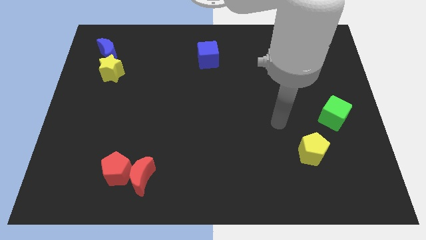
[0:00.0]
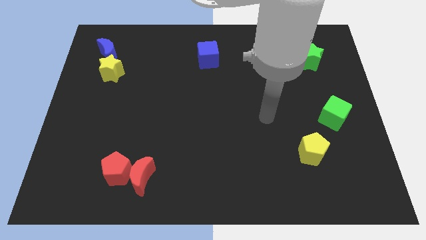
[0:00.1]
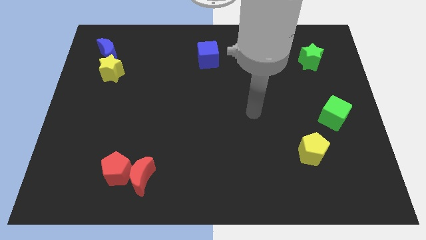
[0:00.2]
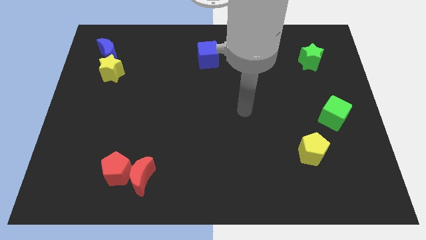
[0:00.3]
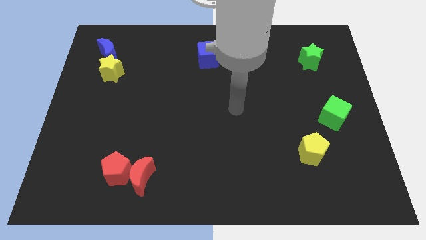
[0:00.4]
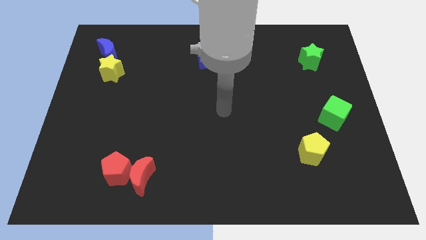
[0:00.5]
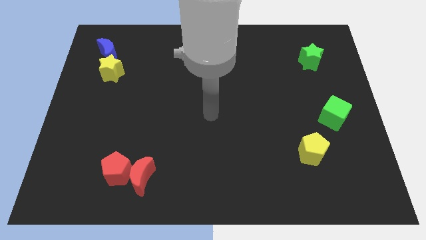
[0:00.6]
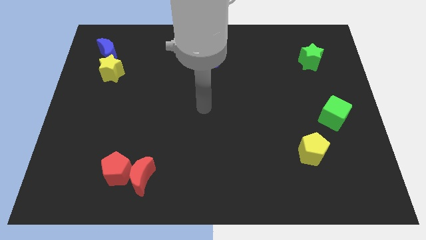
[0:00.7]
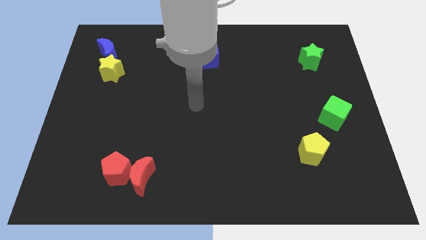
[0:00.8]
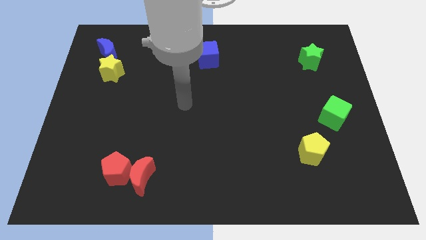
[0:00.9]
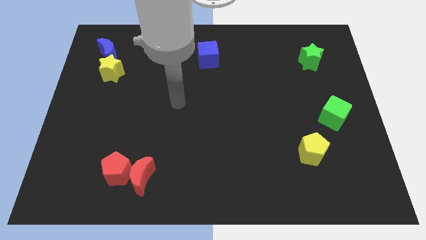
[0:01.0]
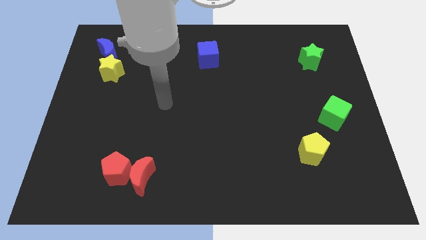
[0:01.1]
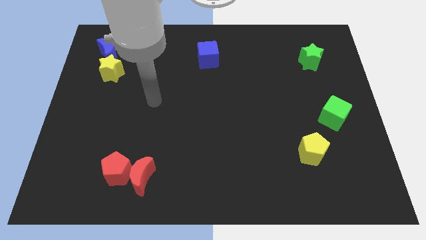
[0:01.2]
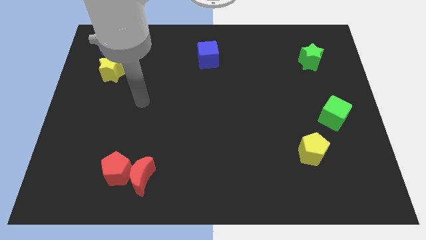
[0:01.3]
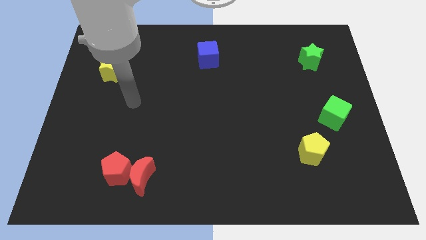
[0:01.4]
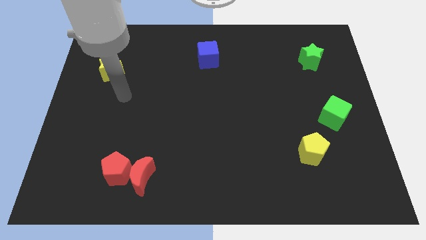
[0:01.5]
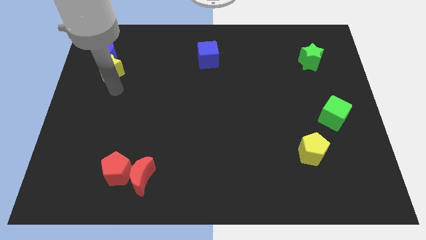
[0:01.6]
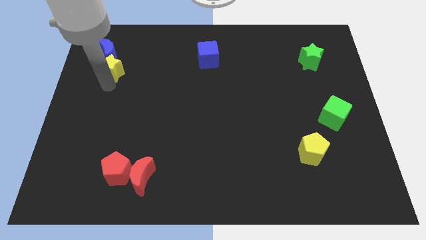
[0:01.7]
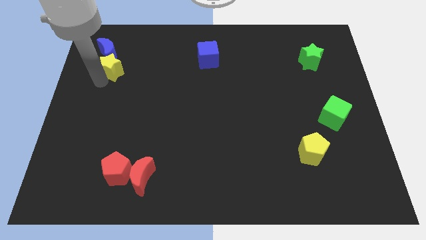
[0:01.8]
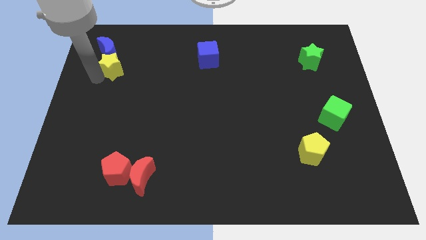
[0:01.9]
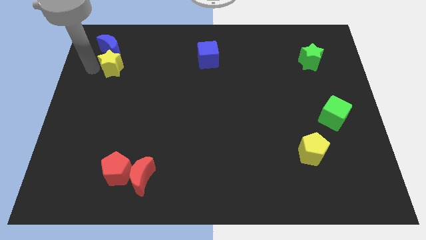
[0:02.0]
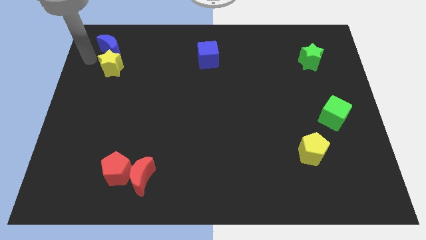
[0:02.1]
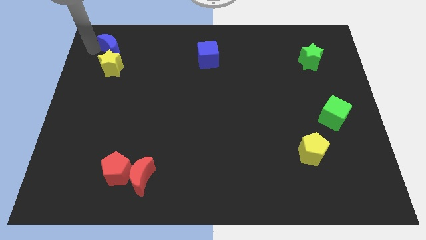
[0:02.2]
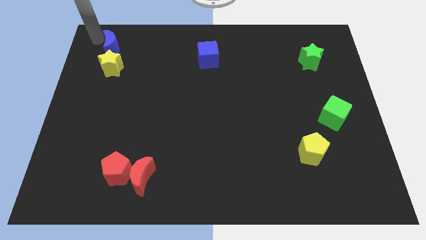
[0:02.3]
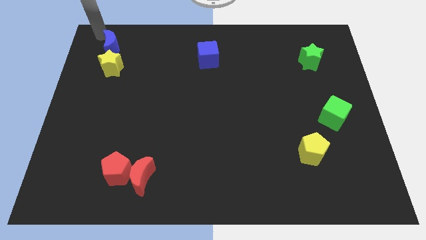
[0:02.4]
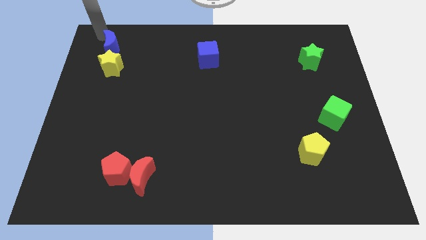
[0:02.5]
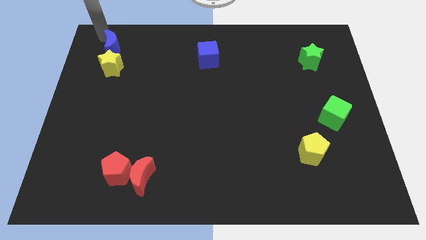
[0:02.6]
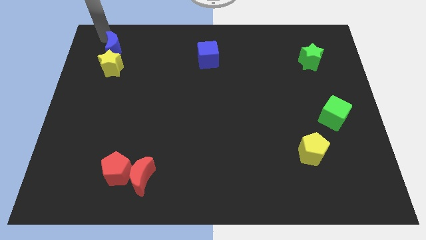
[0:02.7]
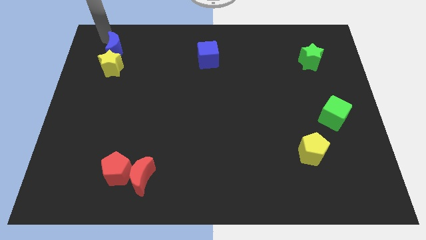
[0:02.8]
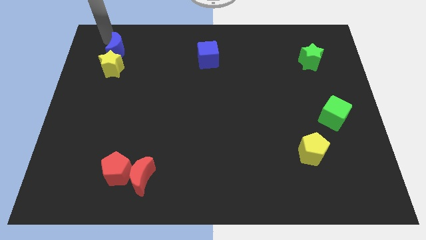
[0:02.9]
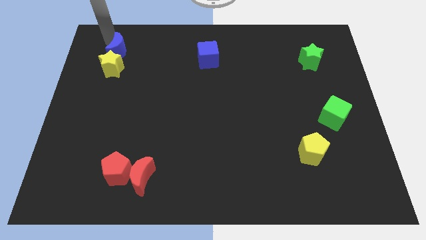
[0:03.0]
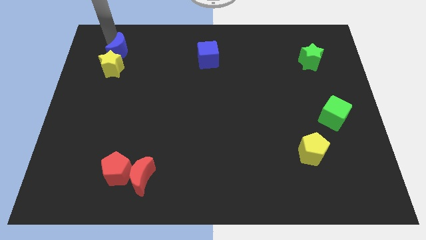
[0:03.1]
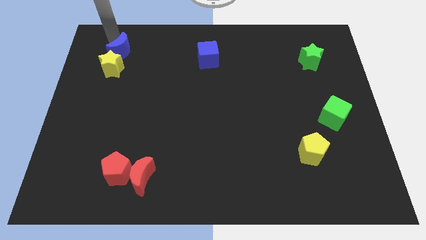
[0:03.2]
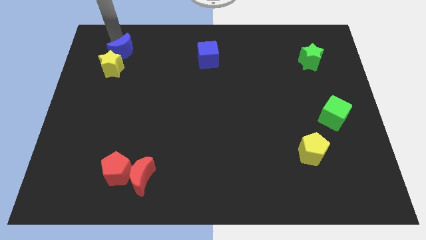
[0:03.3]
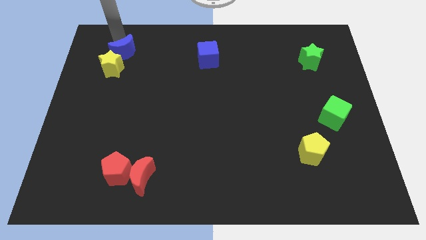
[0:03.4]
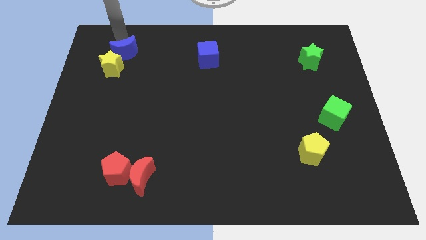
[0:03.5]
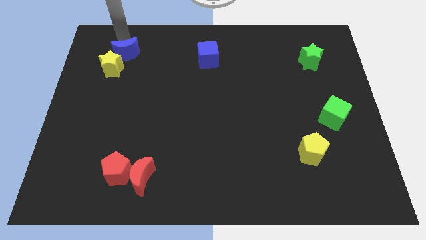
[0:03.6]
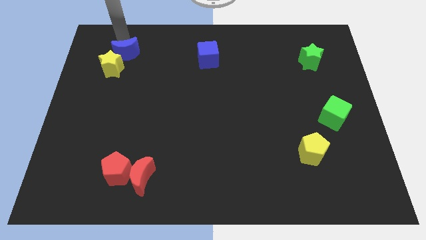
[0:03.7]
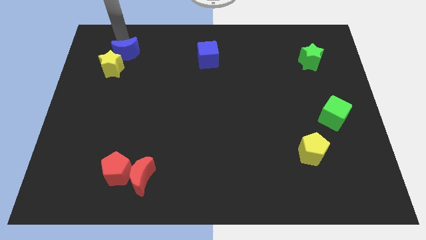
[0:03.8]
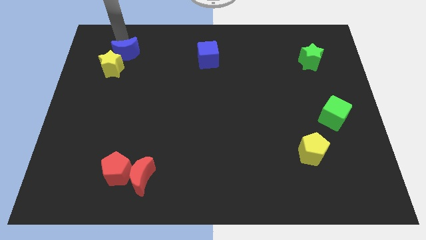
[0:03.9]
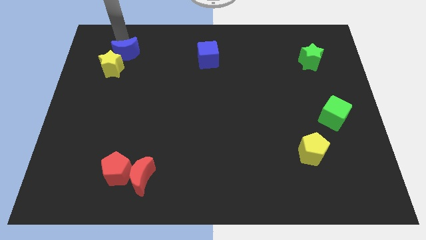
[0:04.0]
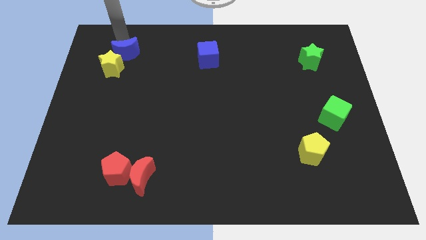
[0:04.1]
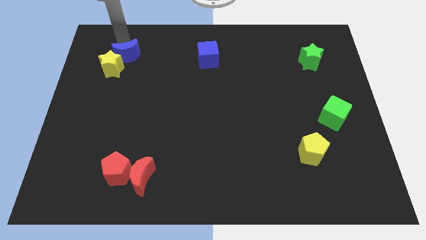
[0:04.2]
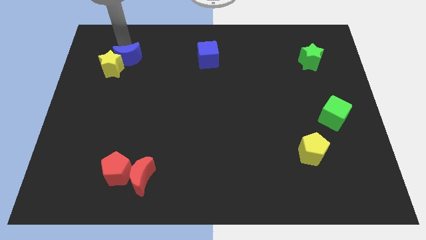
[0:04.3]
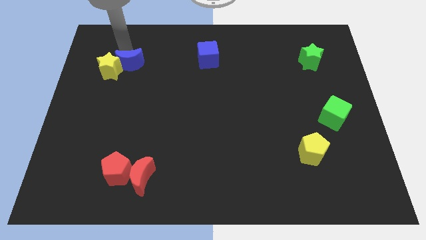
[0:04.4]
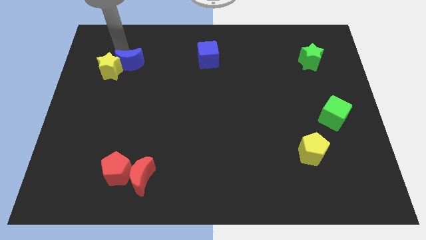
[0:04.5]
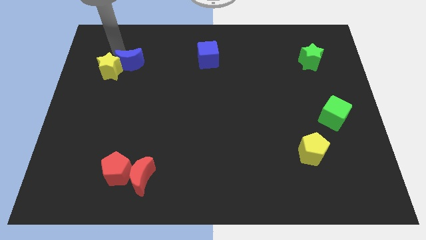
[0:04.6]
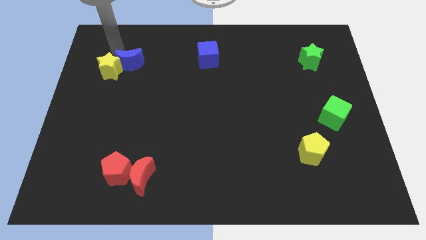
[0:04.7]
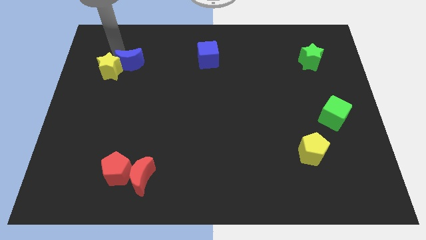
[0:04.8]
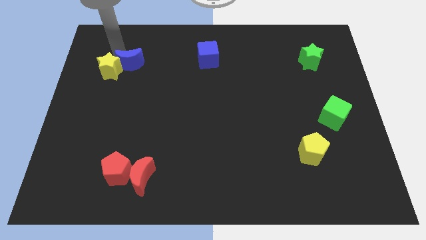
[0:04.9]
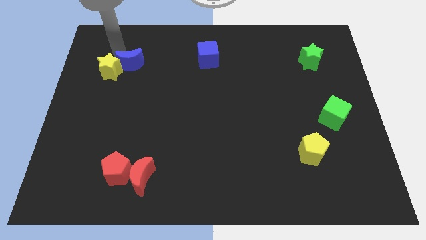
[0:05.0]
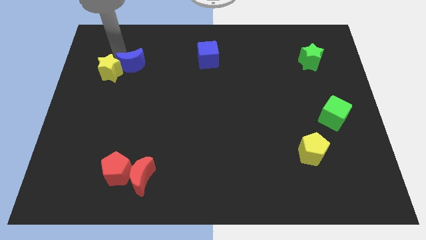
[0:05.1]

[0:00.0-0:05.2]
slide the blue moon downwards and then to the right slightly

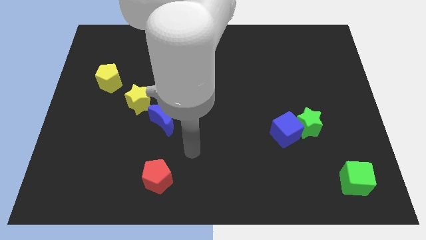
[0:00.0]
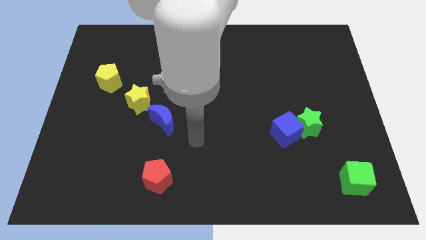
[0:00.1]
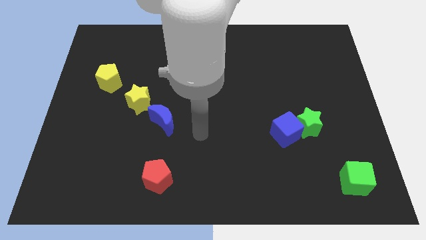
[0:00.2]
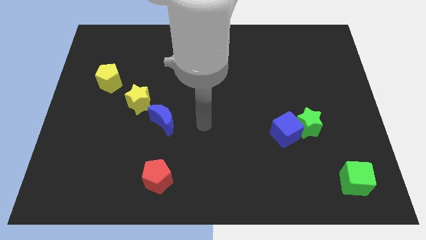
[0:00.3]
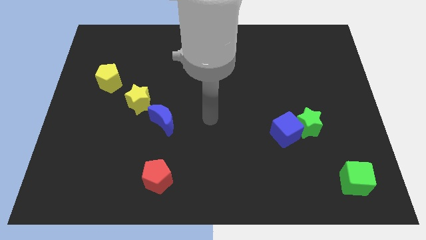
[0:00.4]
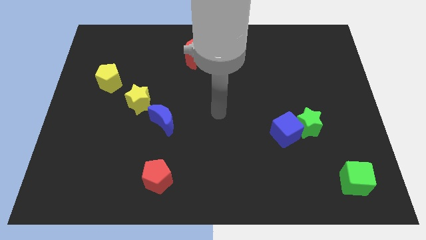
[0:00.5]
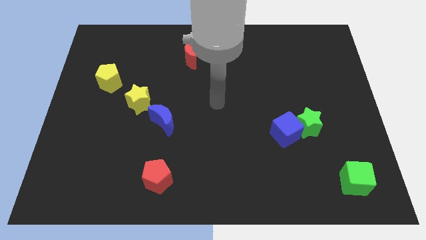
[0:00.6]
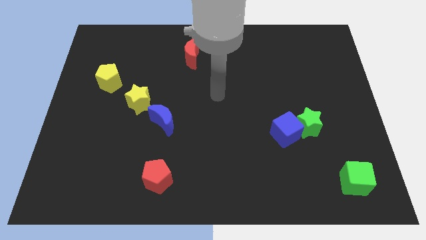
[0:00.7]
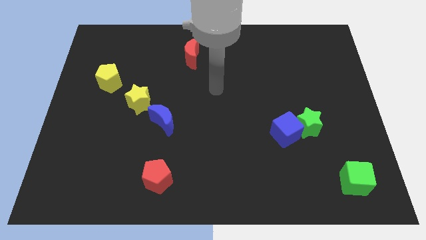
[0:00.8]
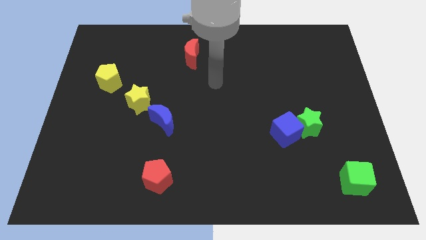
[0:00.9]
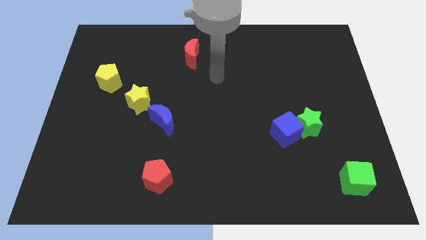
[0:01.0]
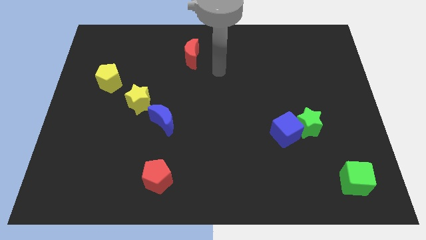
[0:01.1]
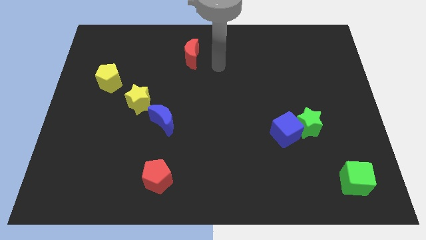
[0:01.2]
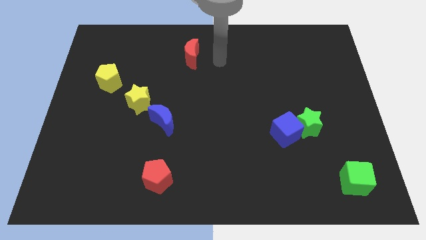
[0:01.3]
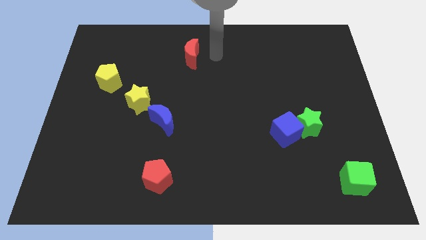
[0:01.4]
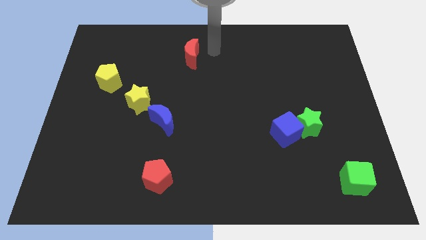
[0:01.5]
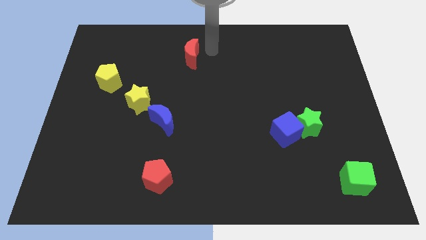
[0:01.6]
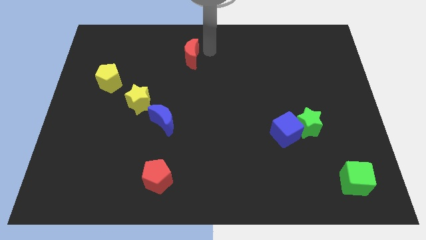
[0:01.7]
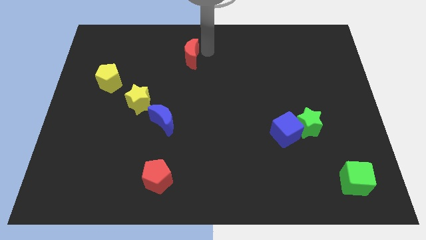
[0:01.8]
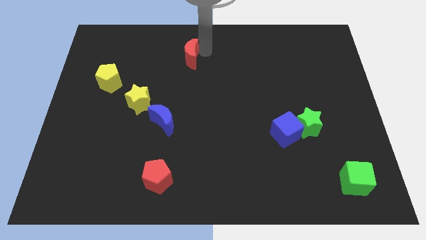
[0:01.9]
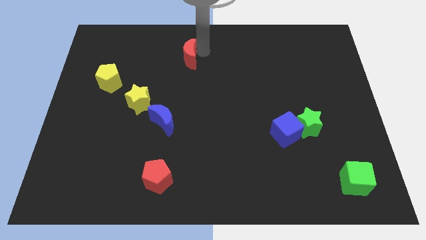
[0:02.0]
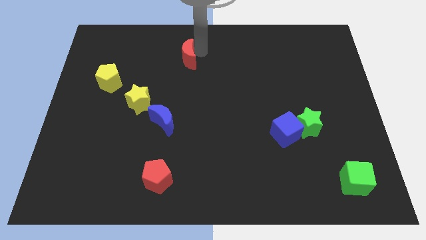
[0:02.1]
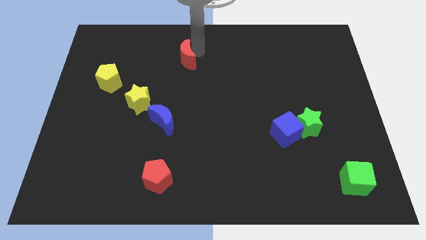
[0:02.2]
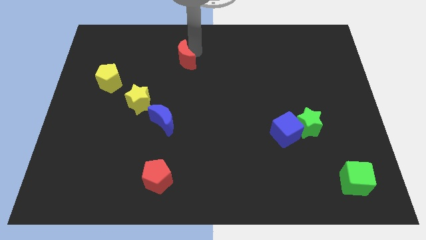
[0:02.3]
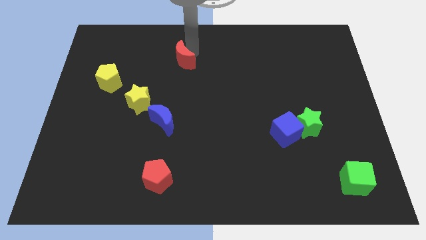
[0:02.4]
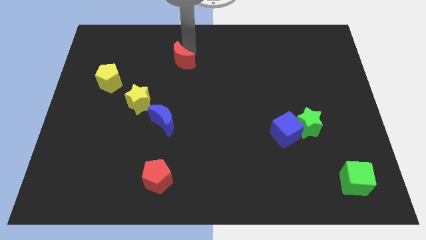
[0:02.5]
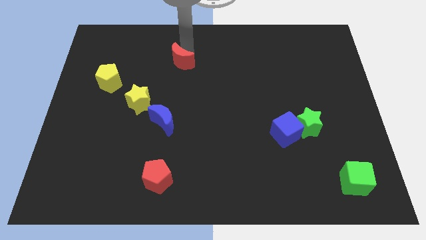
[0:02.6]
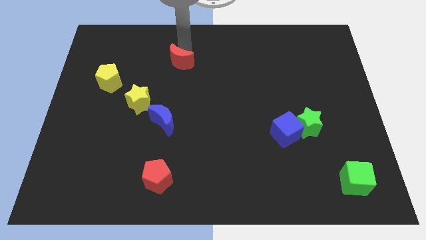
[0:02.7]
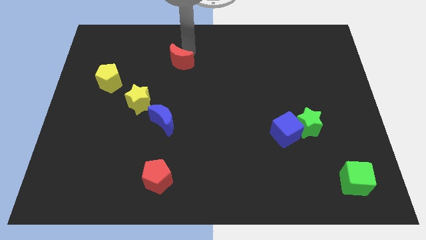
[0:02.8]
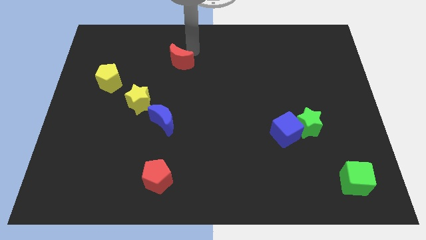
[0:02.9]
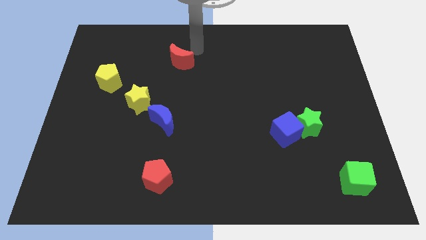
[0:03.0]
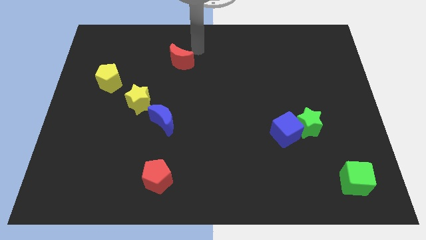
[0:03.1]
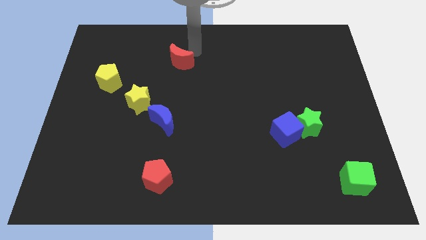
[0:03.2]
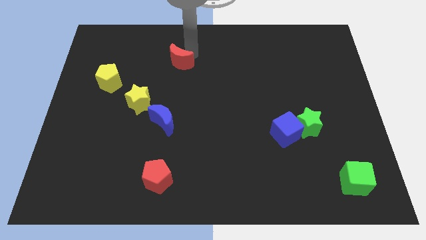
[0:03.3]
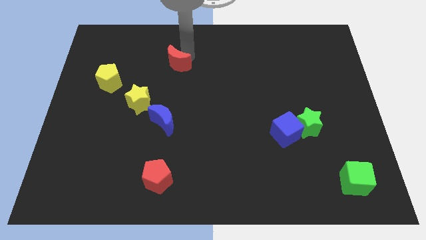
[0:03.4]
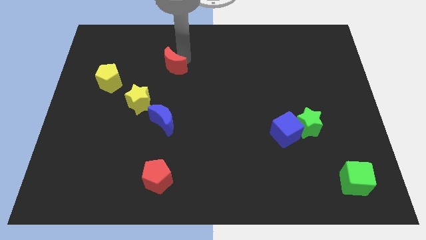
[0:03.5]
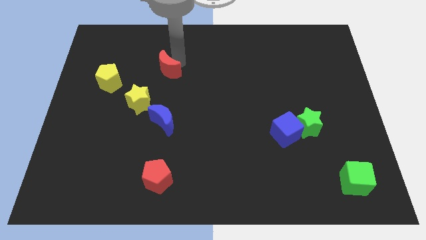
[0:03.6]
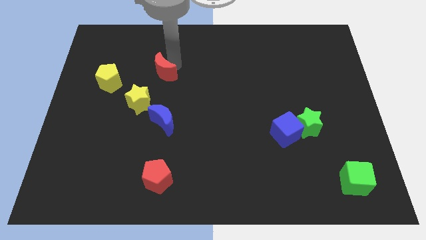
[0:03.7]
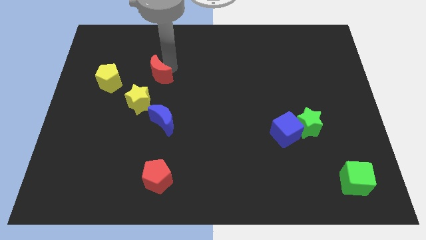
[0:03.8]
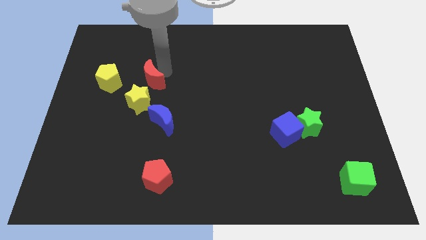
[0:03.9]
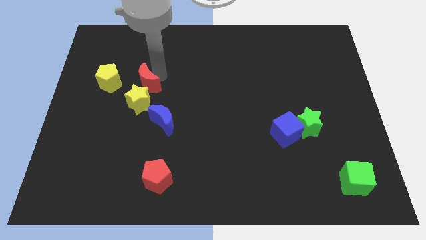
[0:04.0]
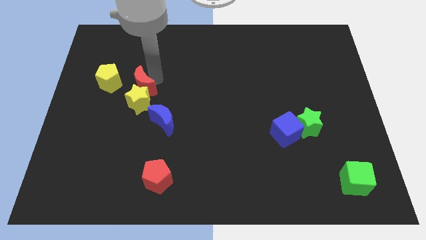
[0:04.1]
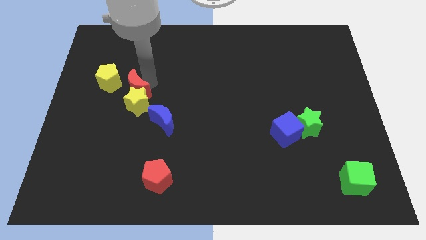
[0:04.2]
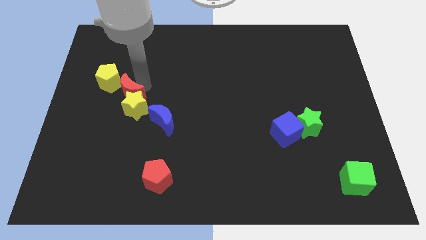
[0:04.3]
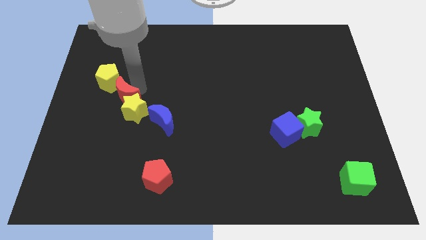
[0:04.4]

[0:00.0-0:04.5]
push the red moon downwards and left
